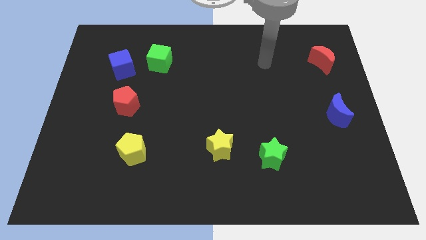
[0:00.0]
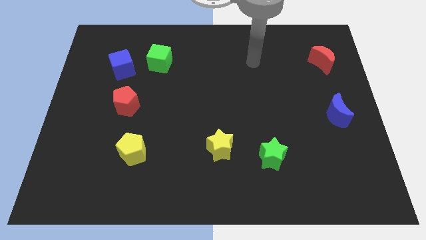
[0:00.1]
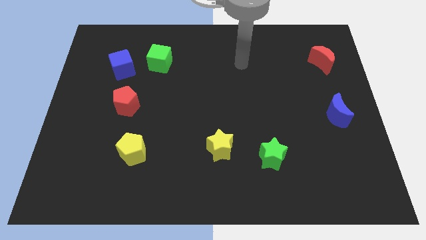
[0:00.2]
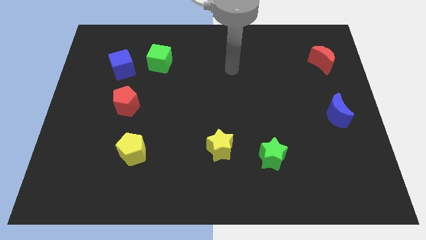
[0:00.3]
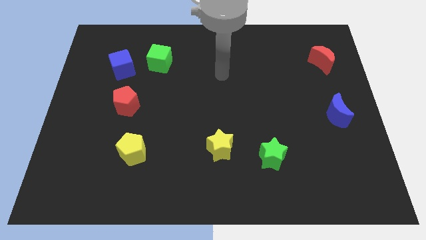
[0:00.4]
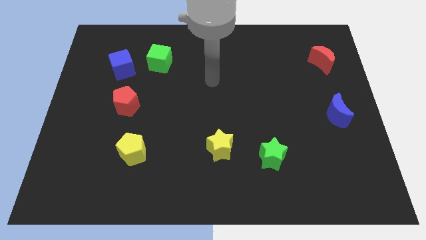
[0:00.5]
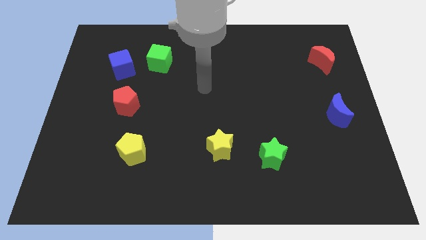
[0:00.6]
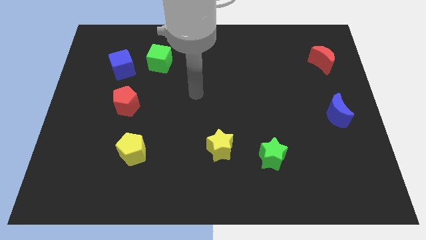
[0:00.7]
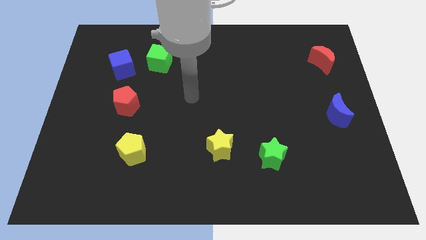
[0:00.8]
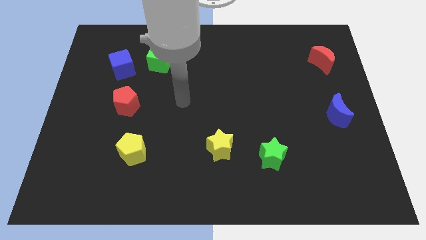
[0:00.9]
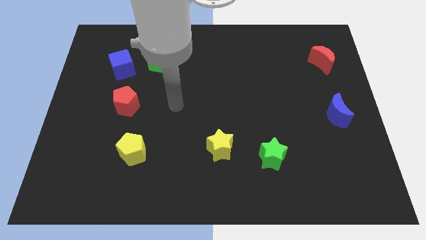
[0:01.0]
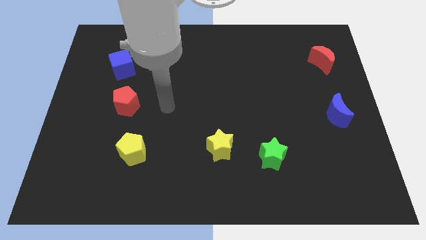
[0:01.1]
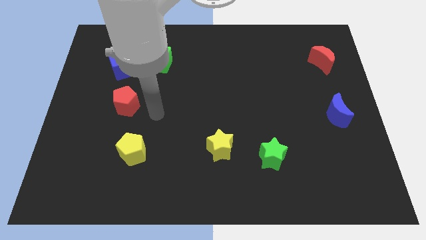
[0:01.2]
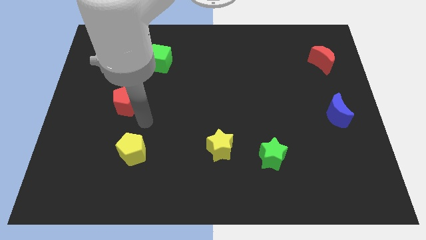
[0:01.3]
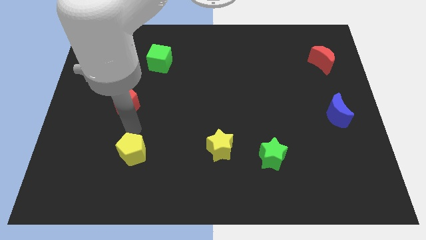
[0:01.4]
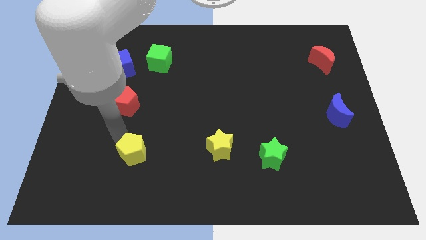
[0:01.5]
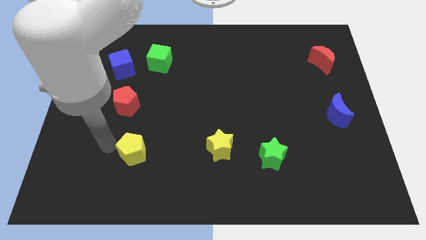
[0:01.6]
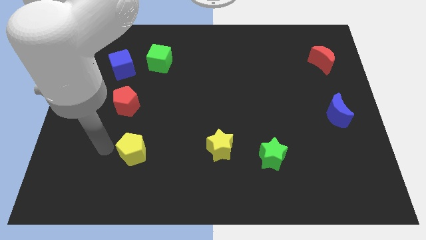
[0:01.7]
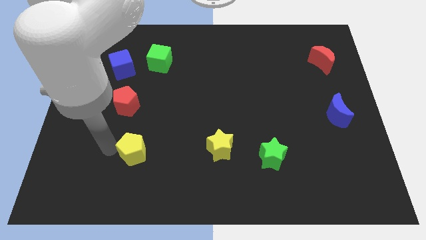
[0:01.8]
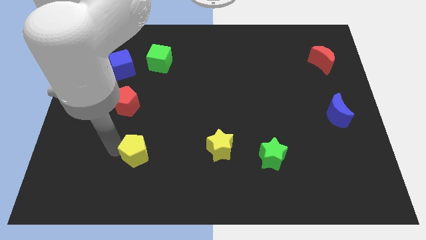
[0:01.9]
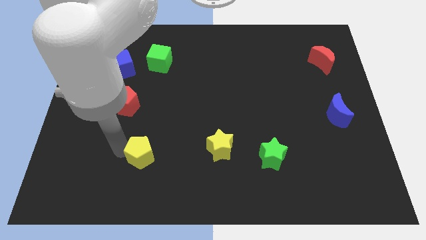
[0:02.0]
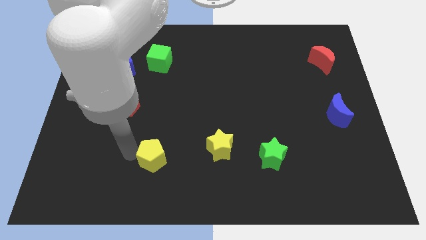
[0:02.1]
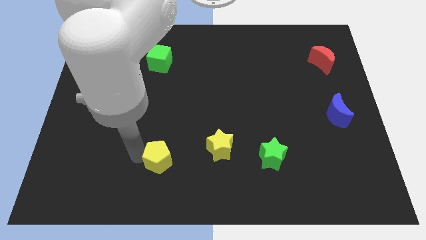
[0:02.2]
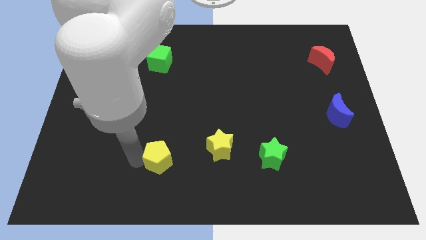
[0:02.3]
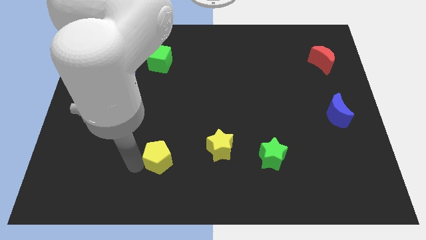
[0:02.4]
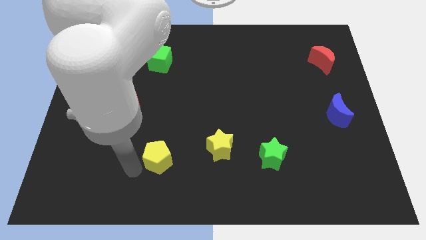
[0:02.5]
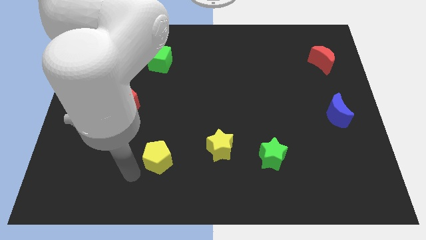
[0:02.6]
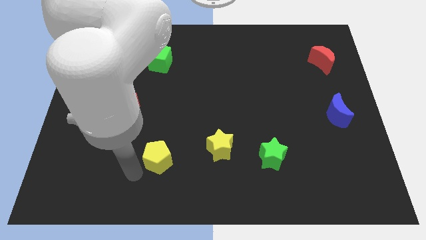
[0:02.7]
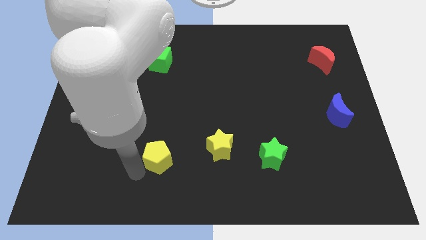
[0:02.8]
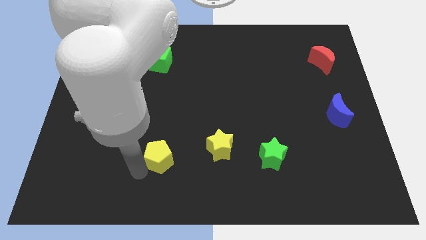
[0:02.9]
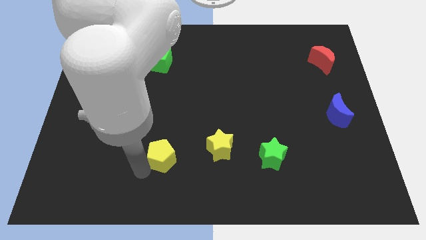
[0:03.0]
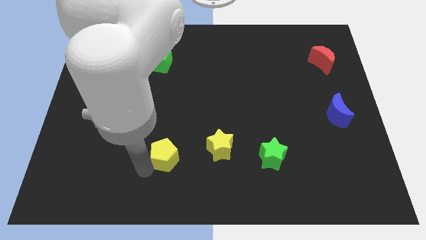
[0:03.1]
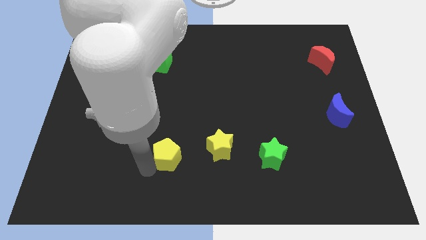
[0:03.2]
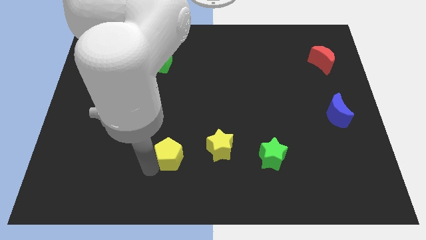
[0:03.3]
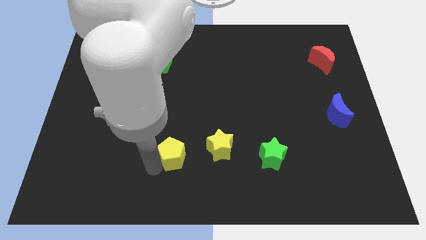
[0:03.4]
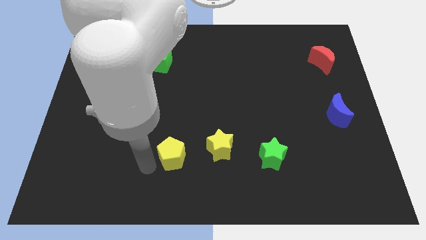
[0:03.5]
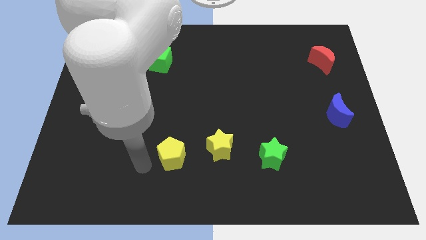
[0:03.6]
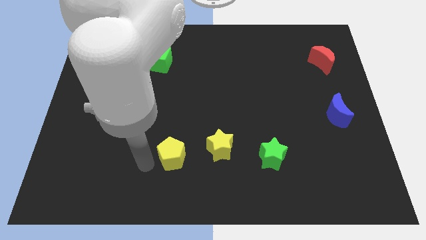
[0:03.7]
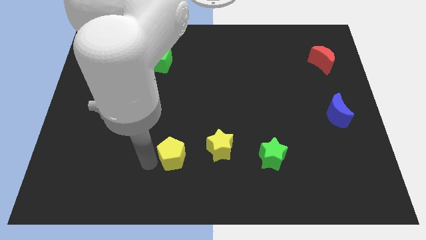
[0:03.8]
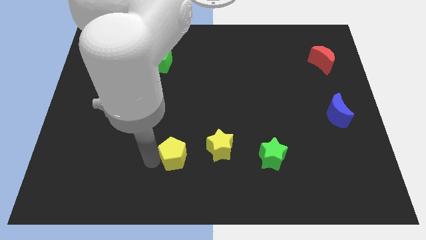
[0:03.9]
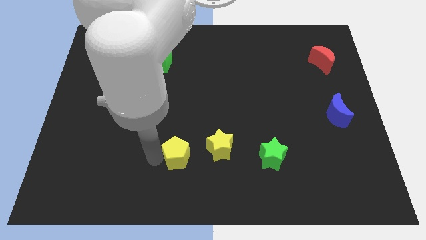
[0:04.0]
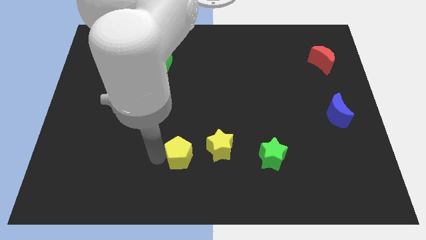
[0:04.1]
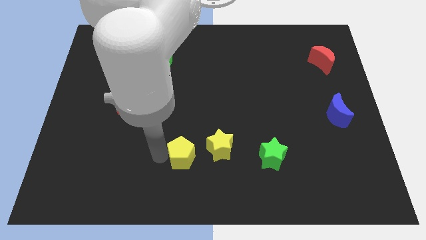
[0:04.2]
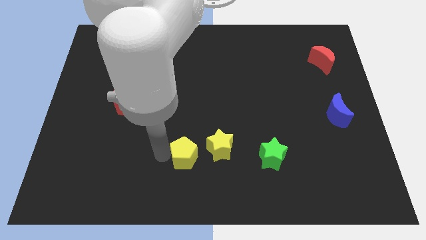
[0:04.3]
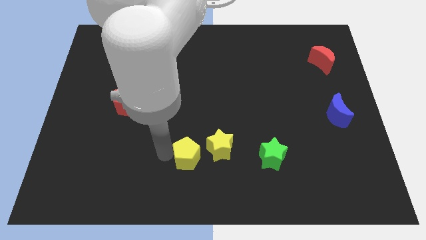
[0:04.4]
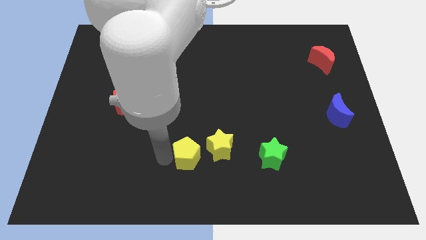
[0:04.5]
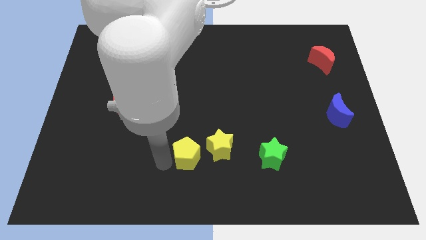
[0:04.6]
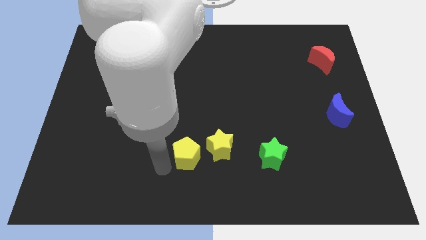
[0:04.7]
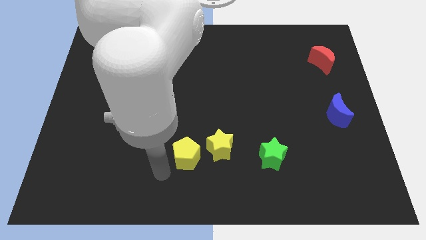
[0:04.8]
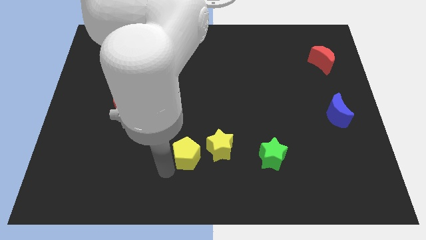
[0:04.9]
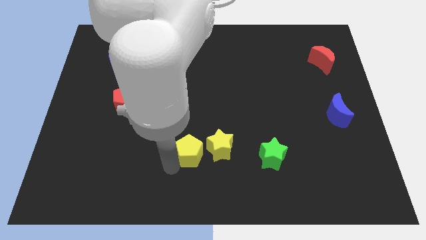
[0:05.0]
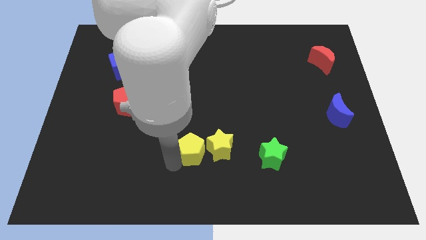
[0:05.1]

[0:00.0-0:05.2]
push the yellow pentagon next to the yellow star

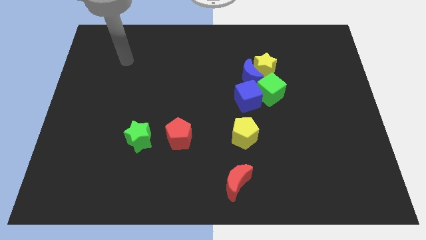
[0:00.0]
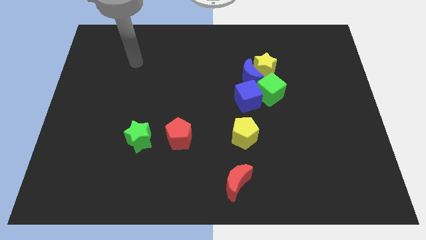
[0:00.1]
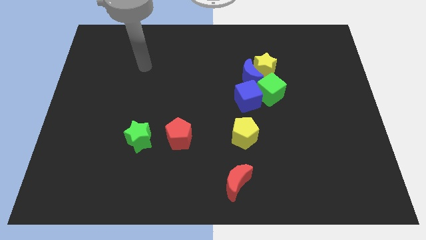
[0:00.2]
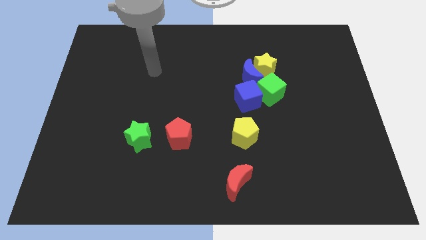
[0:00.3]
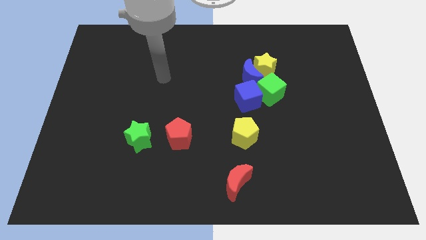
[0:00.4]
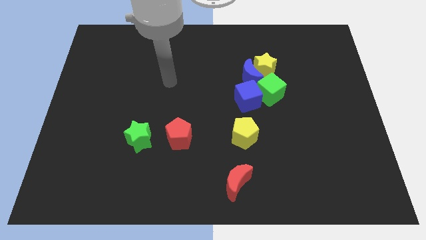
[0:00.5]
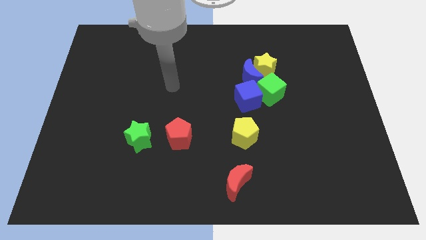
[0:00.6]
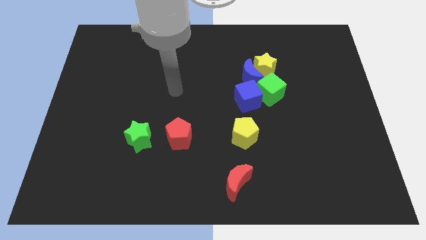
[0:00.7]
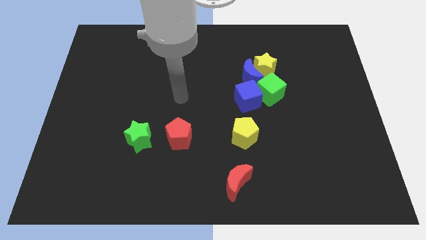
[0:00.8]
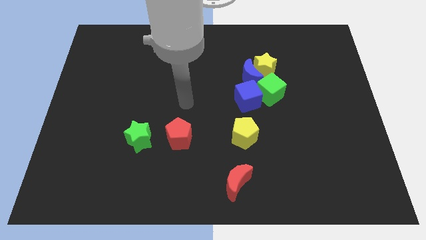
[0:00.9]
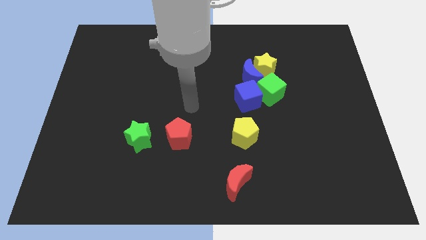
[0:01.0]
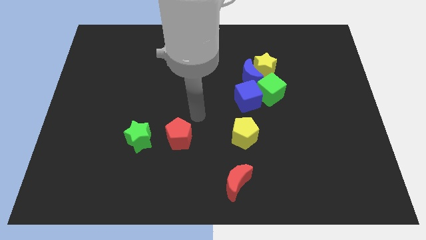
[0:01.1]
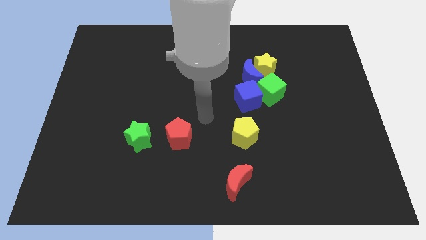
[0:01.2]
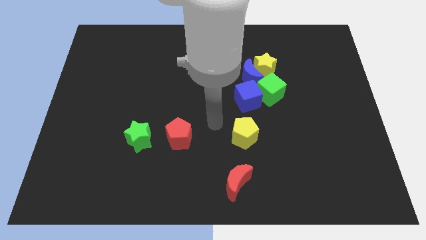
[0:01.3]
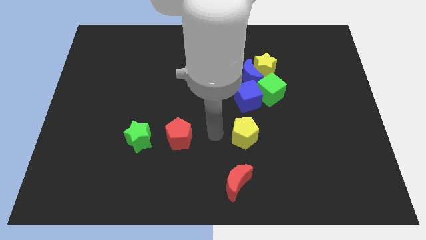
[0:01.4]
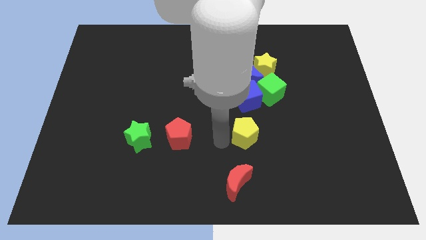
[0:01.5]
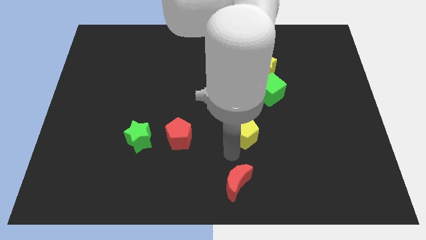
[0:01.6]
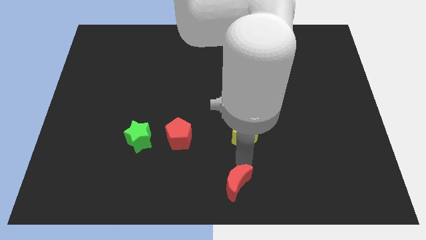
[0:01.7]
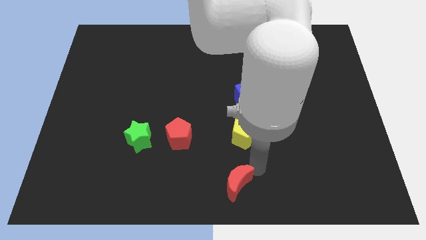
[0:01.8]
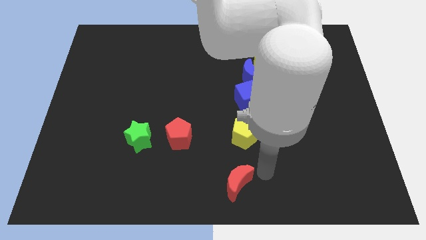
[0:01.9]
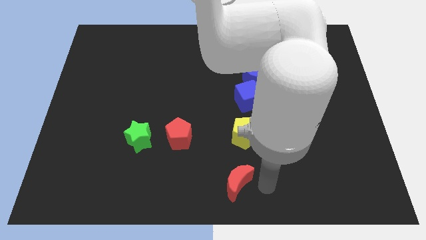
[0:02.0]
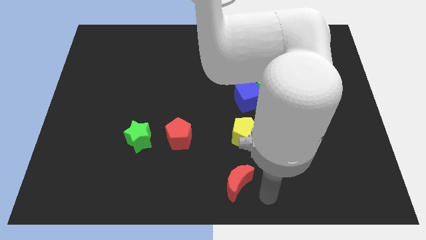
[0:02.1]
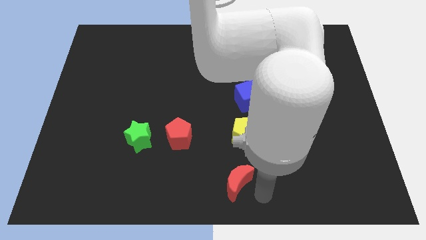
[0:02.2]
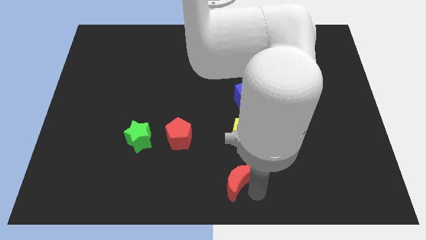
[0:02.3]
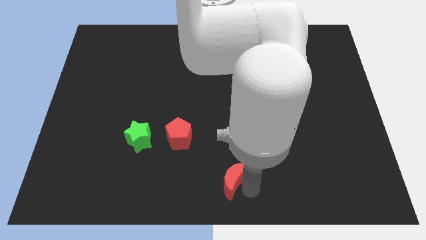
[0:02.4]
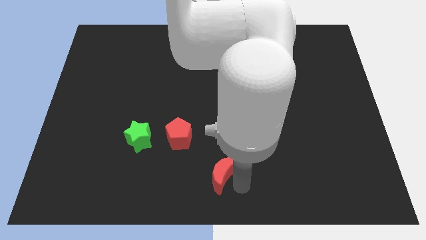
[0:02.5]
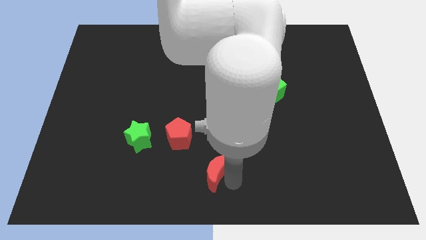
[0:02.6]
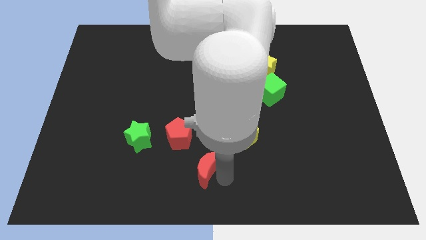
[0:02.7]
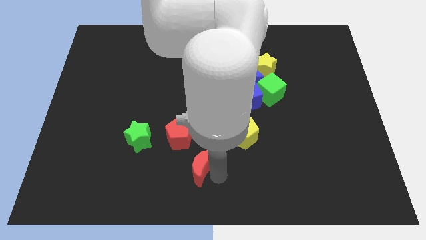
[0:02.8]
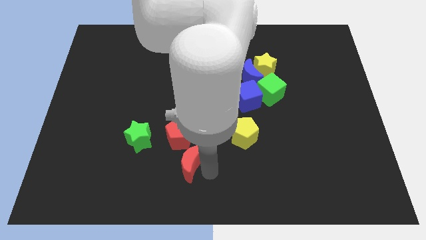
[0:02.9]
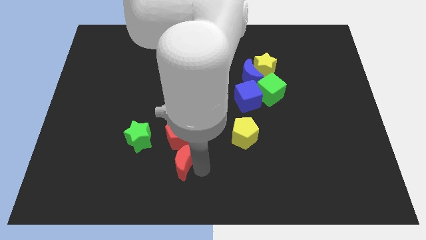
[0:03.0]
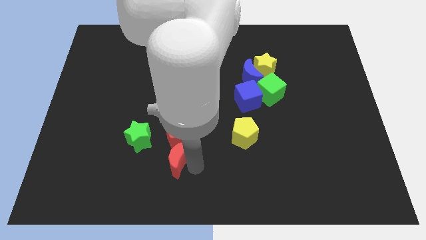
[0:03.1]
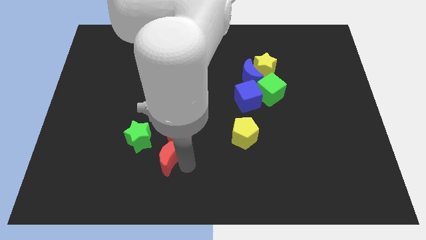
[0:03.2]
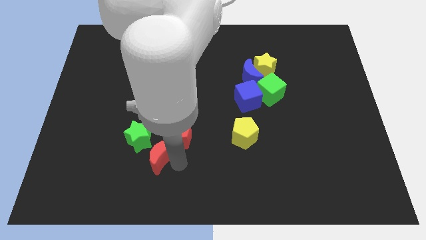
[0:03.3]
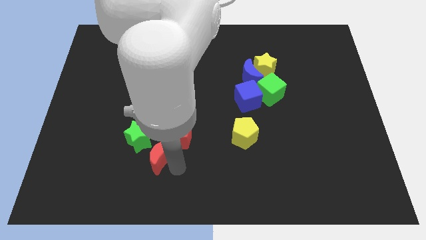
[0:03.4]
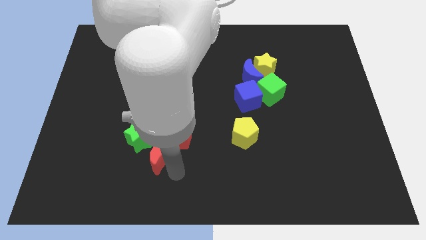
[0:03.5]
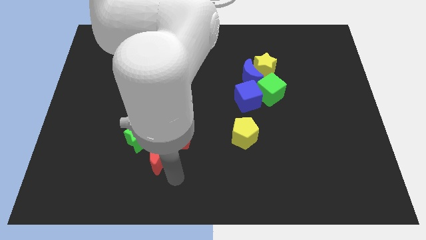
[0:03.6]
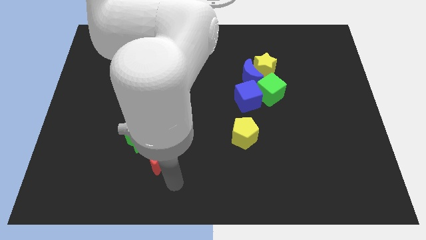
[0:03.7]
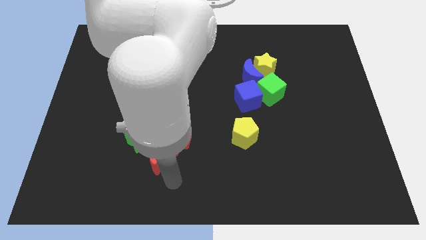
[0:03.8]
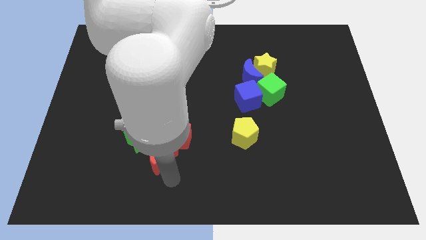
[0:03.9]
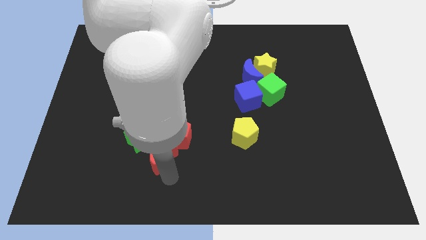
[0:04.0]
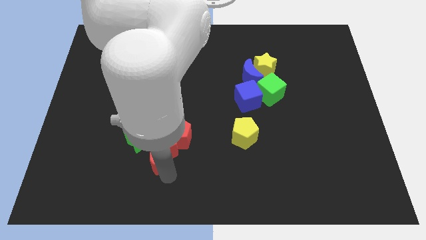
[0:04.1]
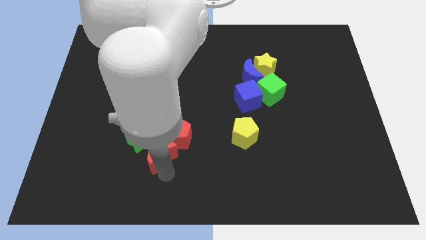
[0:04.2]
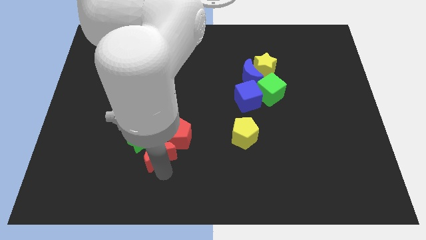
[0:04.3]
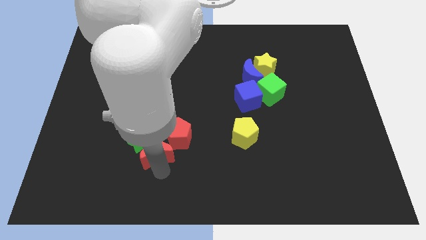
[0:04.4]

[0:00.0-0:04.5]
slide the red moon towards the green star
